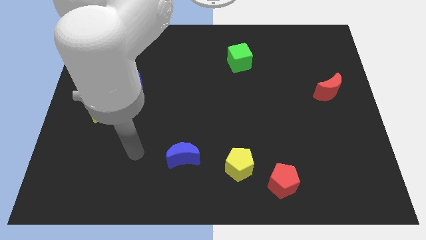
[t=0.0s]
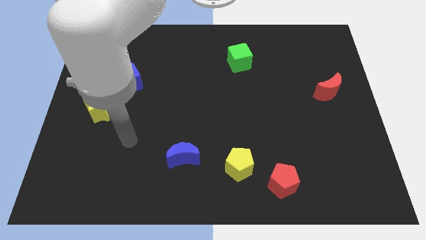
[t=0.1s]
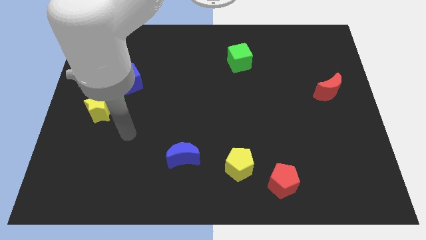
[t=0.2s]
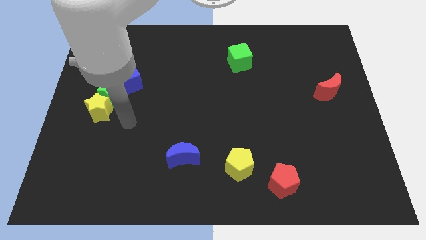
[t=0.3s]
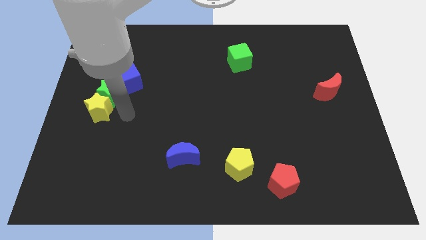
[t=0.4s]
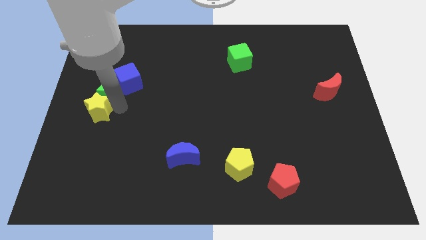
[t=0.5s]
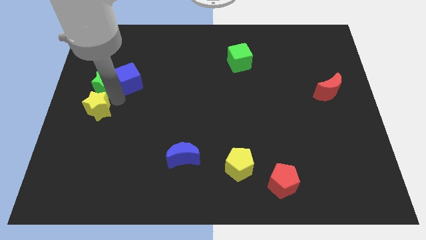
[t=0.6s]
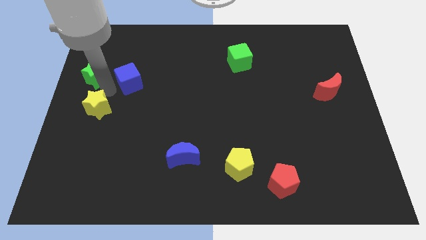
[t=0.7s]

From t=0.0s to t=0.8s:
move the yellow star away from the green star

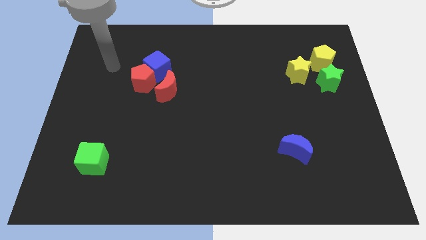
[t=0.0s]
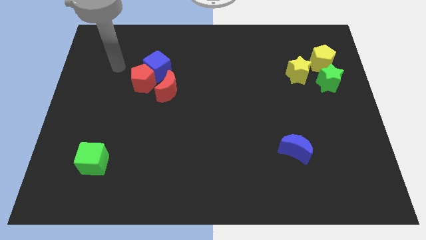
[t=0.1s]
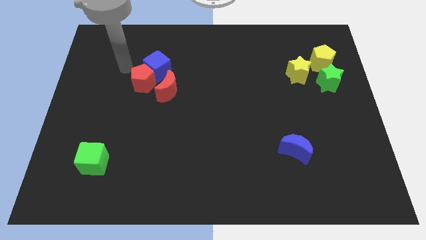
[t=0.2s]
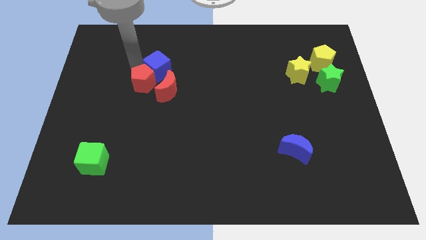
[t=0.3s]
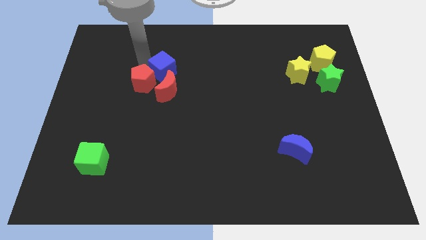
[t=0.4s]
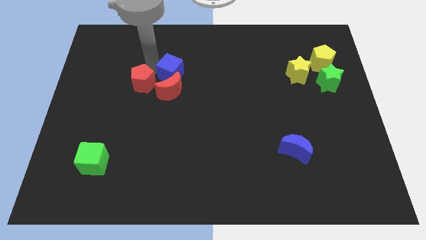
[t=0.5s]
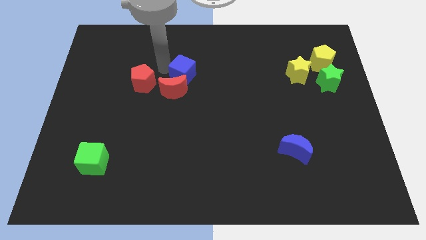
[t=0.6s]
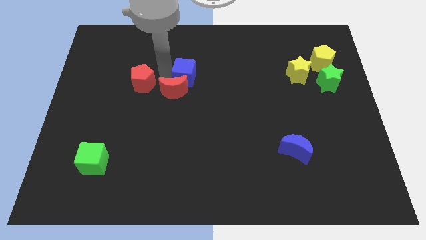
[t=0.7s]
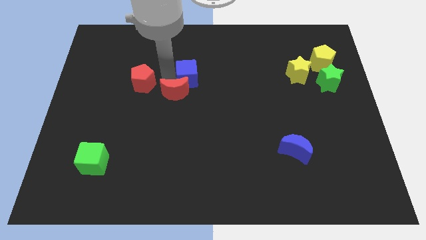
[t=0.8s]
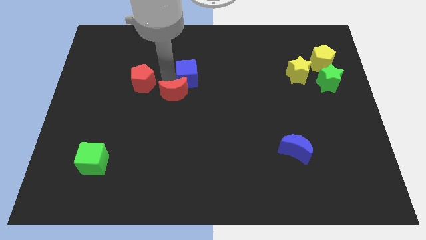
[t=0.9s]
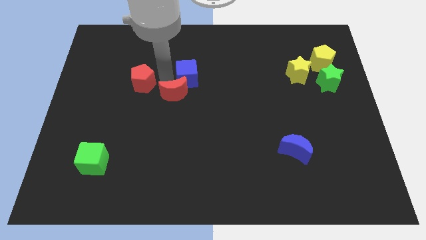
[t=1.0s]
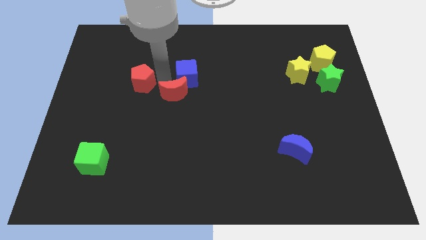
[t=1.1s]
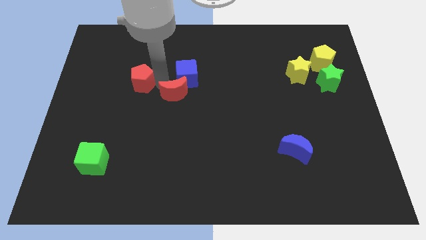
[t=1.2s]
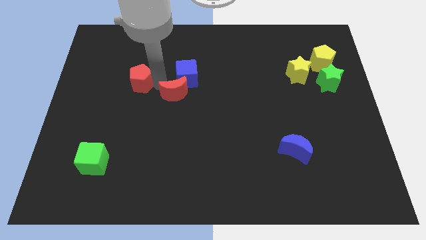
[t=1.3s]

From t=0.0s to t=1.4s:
separate the red pentagon from the blue cube and red moon

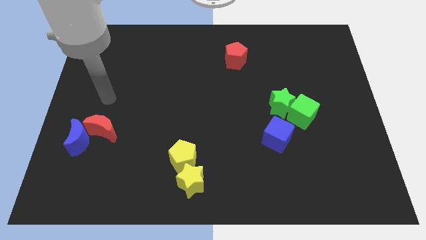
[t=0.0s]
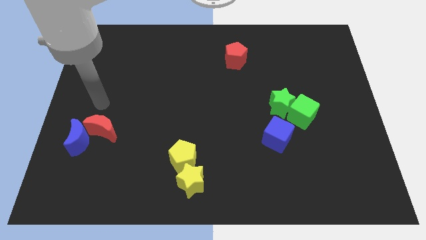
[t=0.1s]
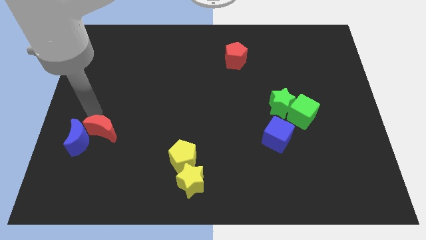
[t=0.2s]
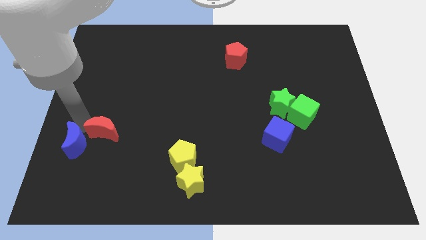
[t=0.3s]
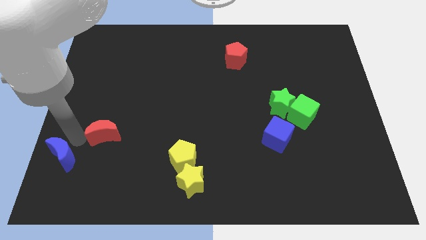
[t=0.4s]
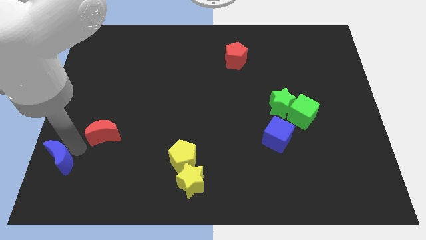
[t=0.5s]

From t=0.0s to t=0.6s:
move the red moon away from the blue moon

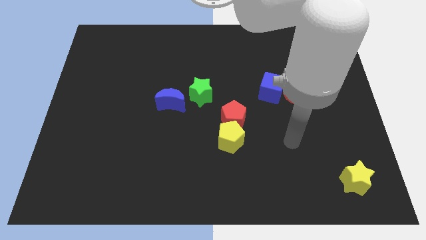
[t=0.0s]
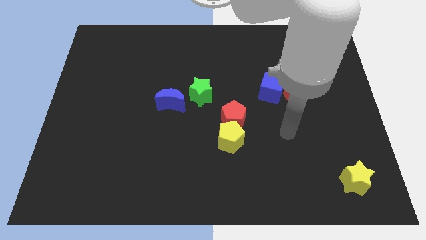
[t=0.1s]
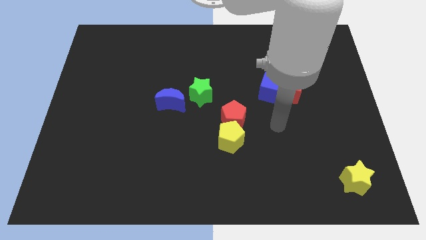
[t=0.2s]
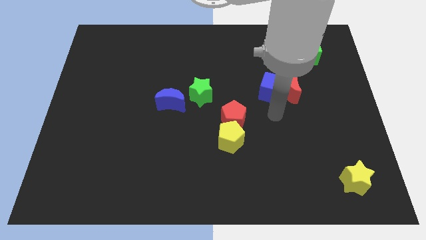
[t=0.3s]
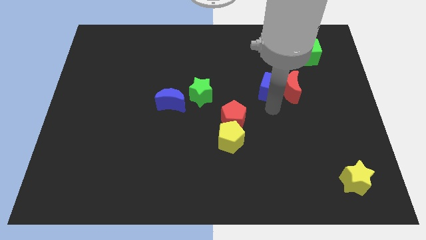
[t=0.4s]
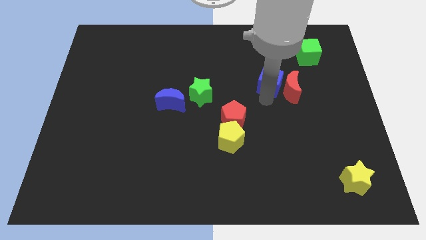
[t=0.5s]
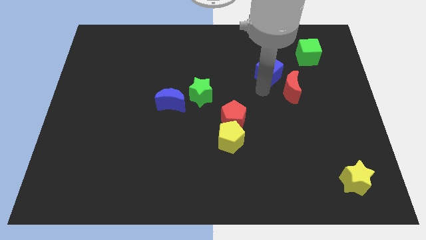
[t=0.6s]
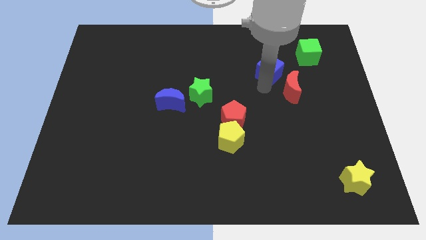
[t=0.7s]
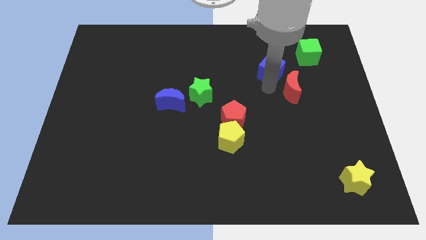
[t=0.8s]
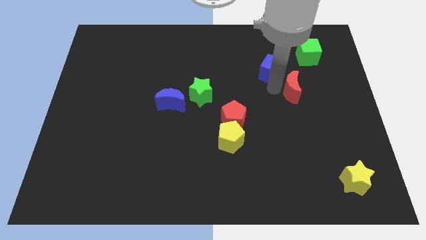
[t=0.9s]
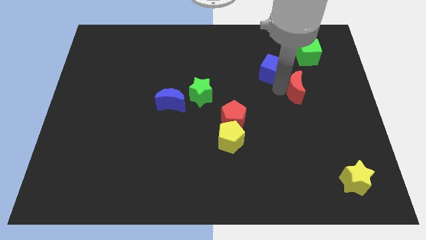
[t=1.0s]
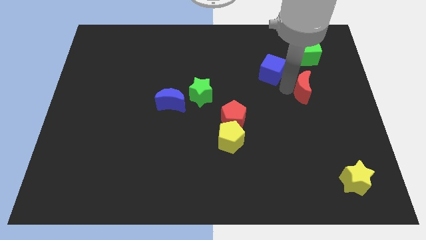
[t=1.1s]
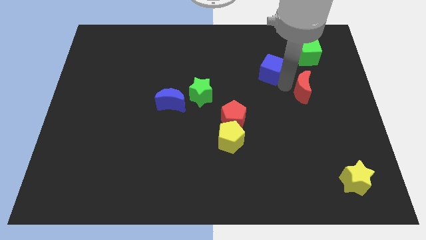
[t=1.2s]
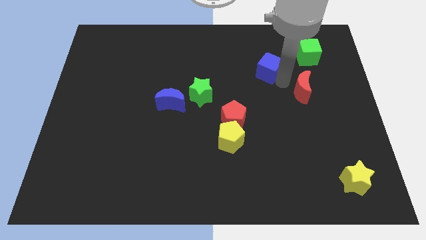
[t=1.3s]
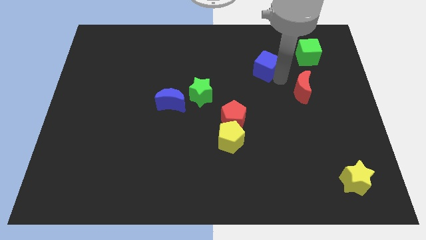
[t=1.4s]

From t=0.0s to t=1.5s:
move the red moon away from the blue cube

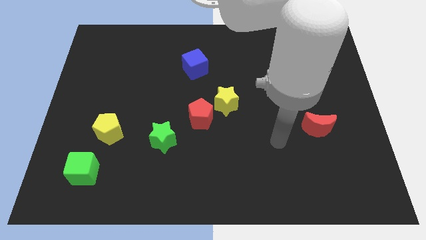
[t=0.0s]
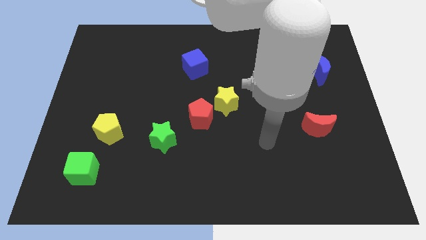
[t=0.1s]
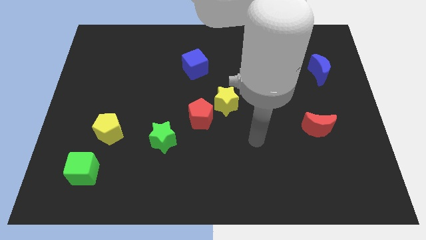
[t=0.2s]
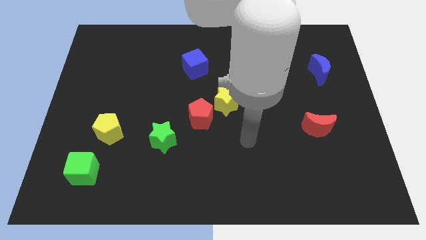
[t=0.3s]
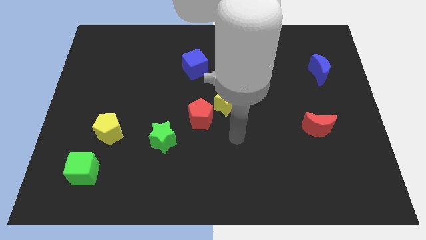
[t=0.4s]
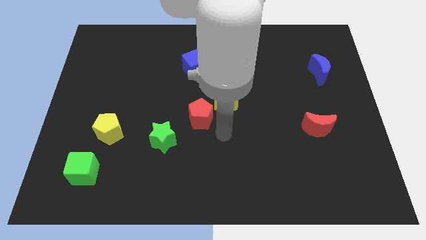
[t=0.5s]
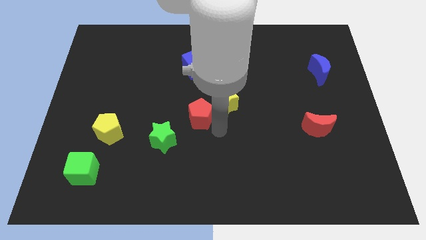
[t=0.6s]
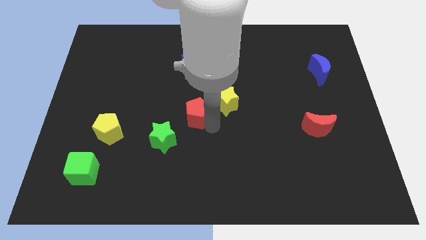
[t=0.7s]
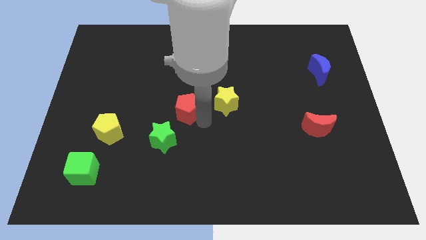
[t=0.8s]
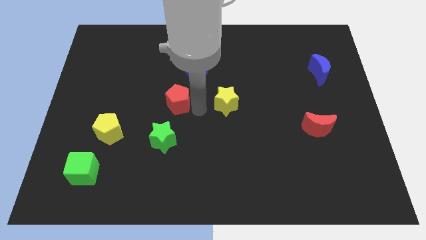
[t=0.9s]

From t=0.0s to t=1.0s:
move the yellow star away from the red pentagon

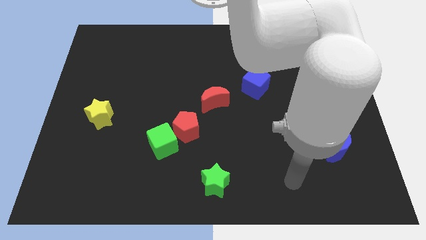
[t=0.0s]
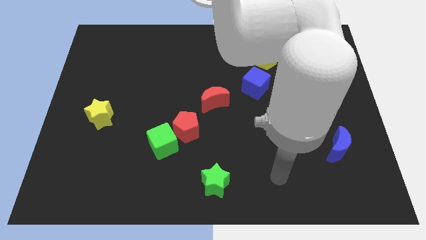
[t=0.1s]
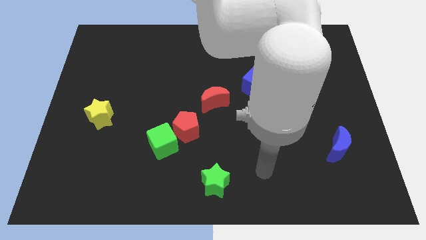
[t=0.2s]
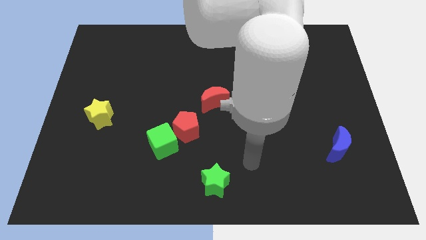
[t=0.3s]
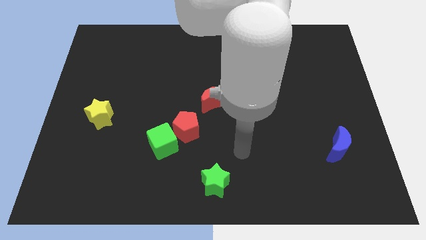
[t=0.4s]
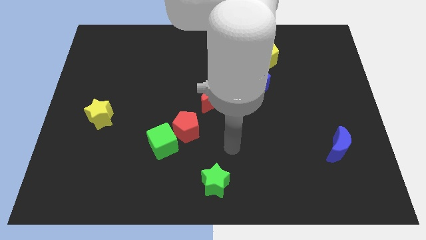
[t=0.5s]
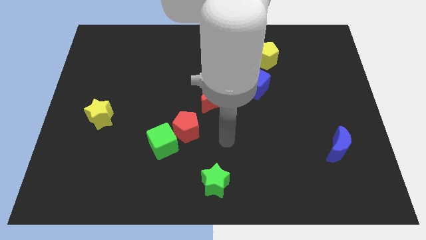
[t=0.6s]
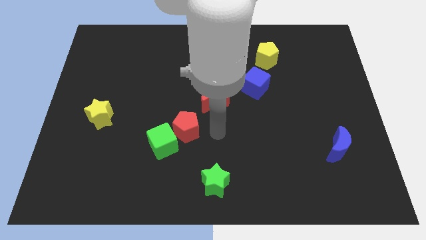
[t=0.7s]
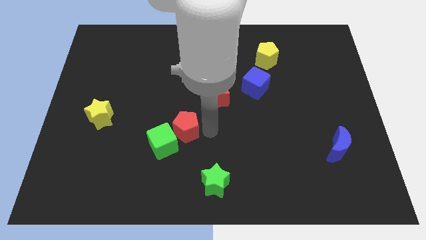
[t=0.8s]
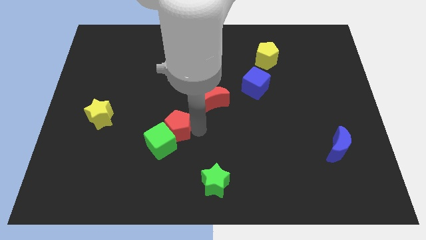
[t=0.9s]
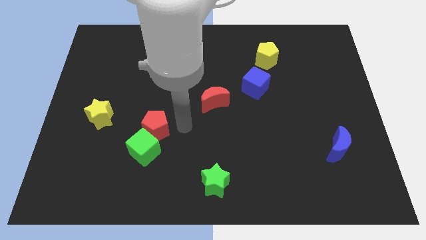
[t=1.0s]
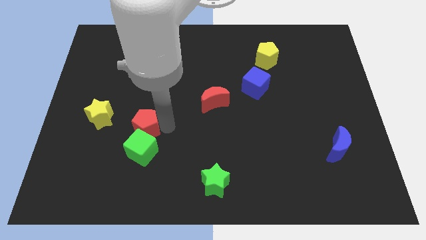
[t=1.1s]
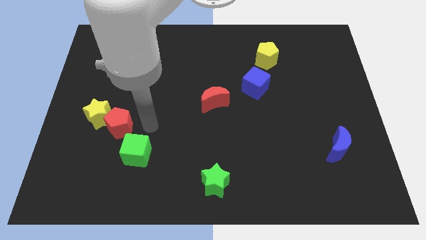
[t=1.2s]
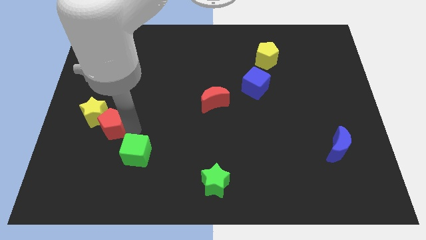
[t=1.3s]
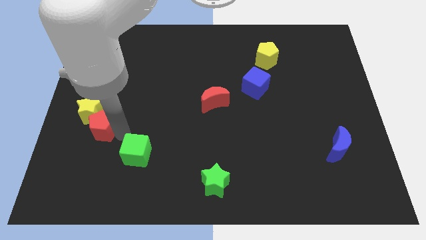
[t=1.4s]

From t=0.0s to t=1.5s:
separate the green cube from the red pentagon

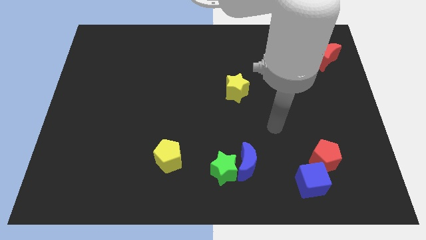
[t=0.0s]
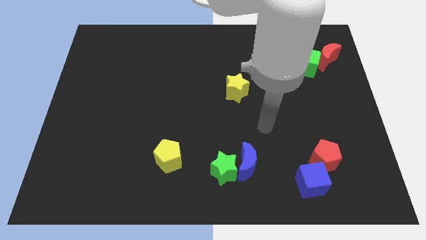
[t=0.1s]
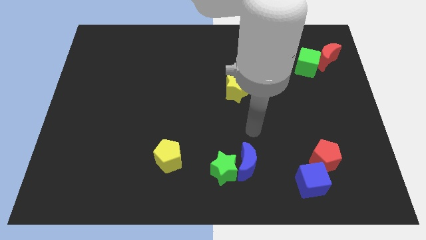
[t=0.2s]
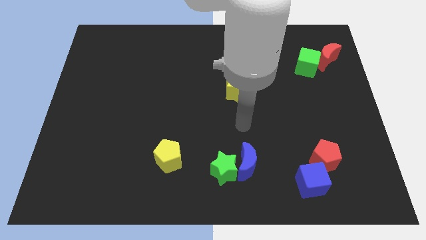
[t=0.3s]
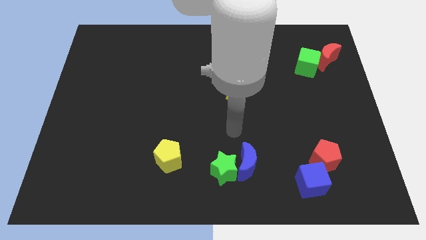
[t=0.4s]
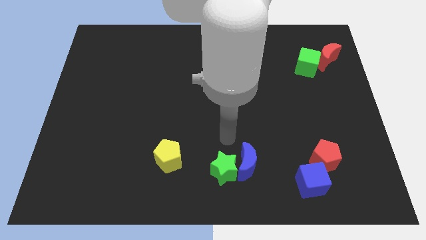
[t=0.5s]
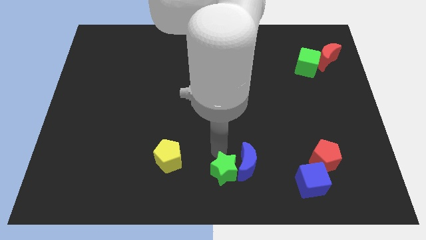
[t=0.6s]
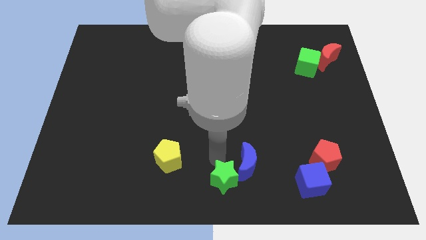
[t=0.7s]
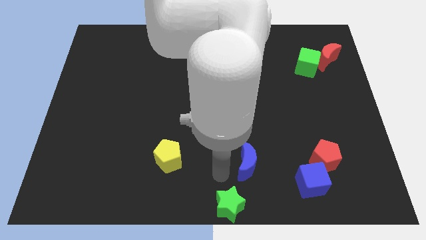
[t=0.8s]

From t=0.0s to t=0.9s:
pull the blue moon apart from the green star

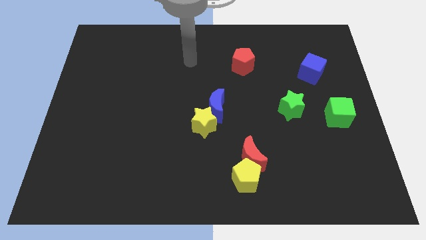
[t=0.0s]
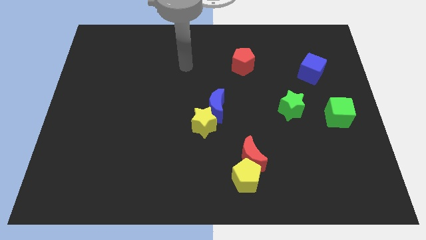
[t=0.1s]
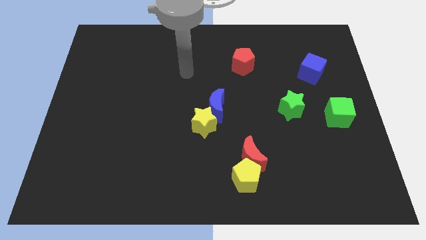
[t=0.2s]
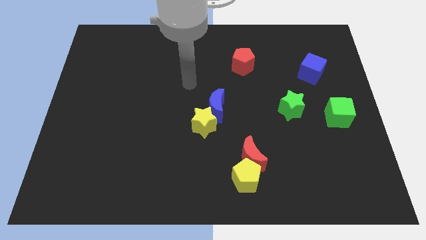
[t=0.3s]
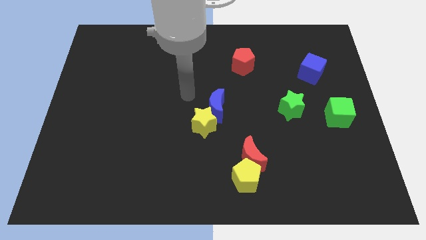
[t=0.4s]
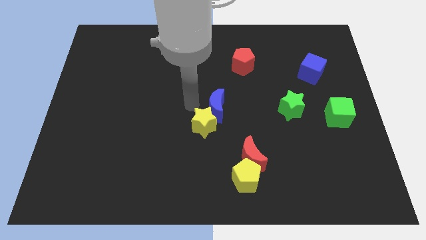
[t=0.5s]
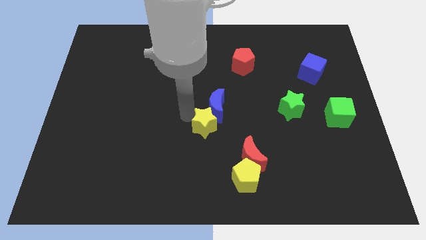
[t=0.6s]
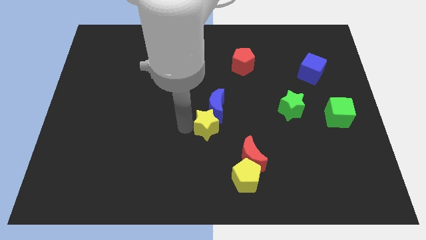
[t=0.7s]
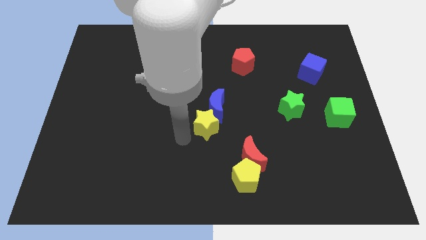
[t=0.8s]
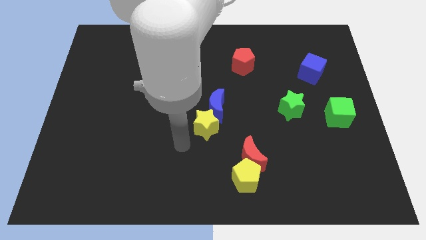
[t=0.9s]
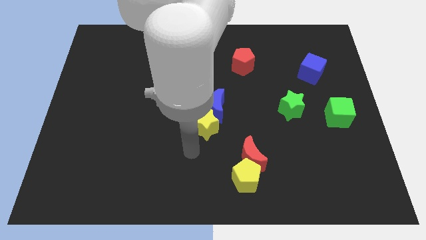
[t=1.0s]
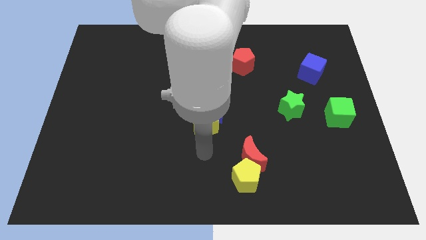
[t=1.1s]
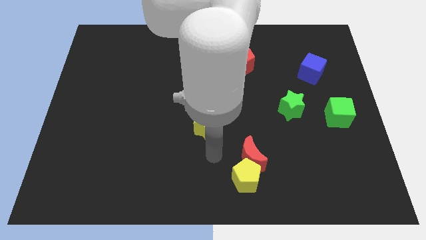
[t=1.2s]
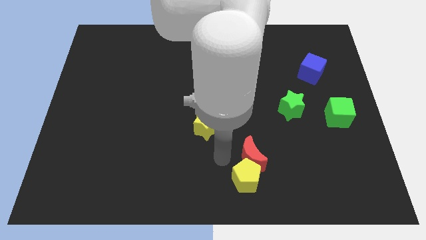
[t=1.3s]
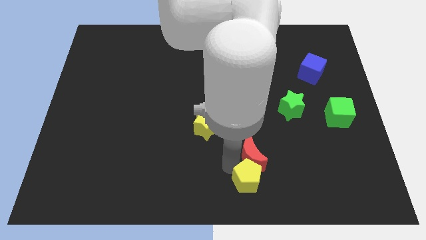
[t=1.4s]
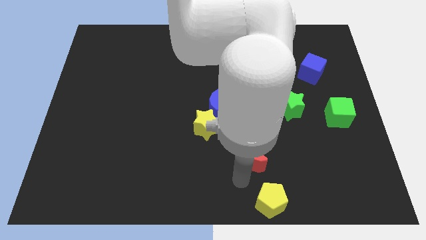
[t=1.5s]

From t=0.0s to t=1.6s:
pull the red moon apart from the yellow pentagon
